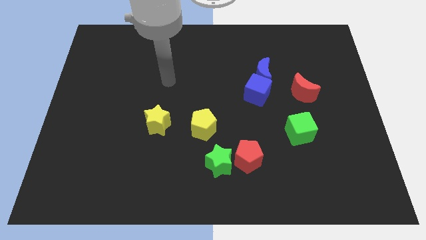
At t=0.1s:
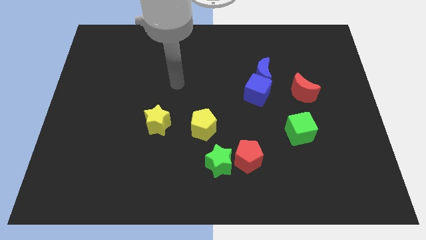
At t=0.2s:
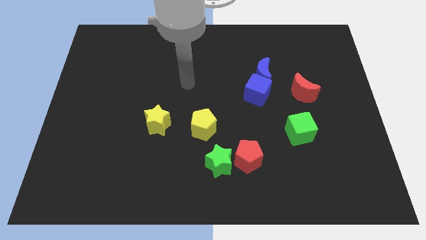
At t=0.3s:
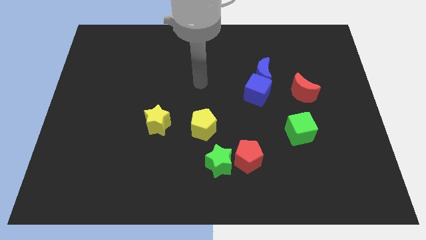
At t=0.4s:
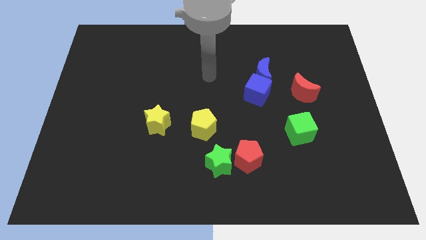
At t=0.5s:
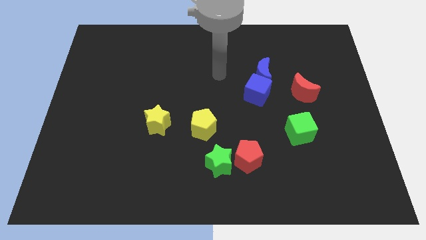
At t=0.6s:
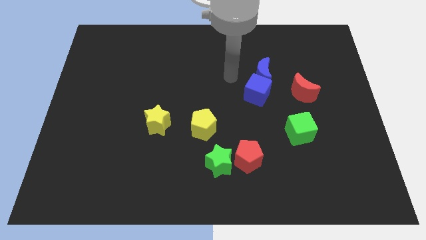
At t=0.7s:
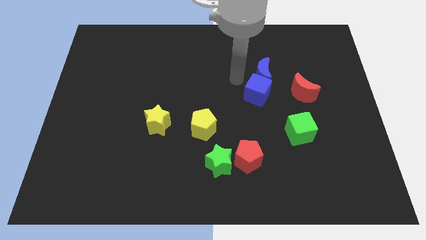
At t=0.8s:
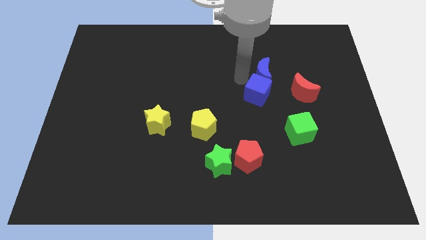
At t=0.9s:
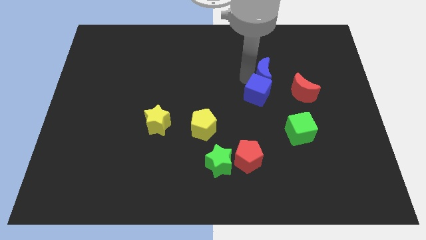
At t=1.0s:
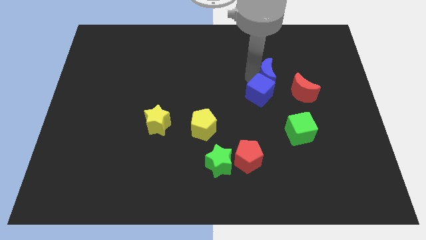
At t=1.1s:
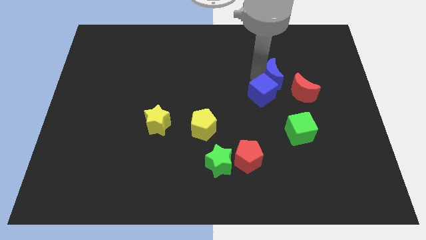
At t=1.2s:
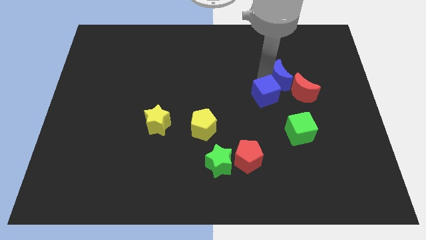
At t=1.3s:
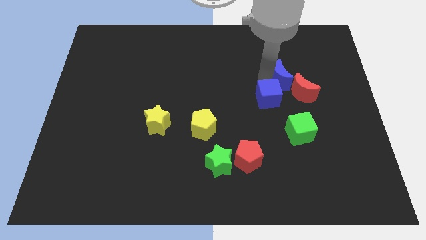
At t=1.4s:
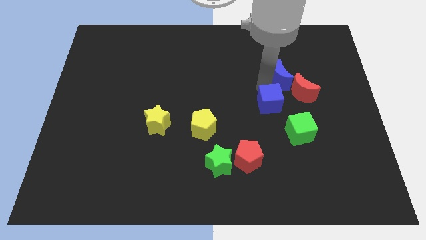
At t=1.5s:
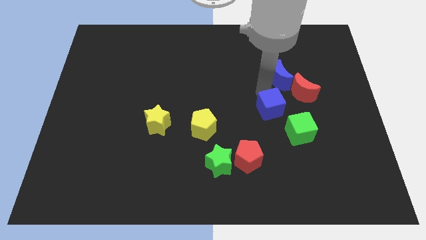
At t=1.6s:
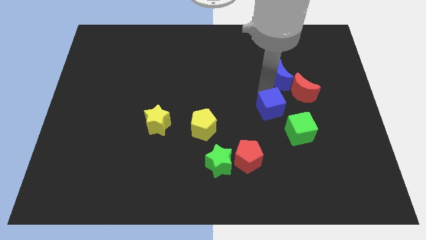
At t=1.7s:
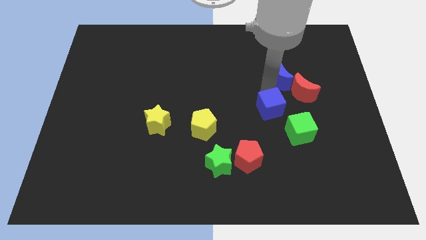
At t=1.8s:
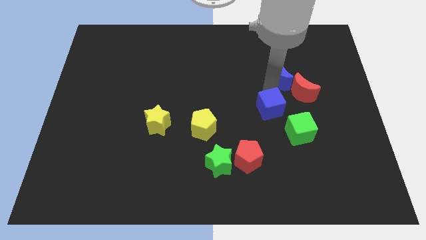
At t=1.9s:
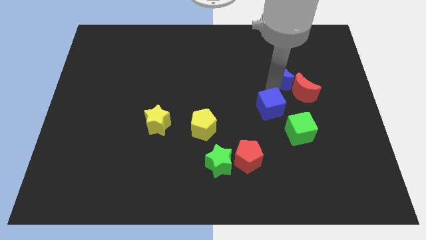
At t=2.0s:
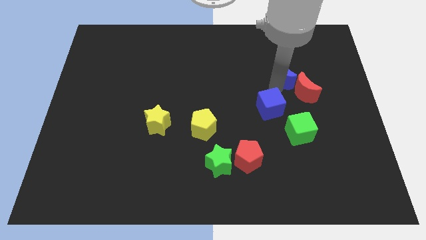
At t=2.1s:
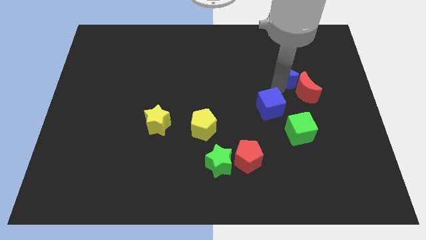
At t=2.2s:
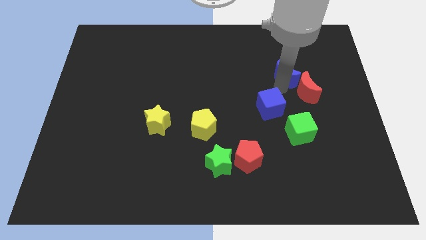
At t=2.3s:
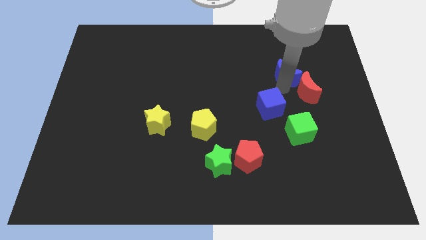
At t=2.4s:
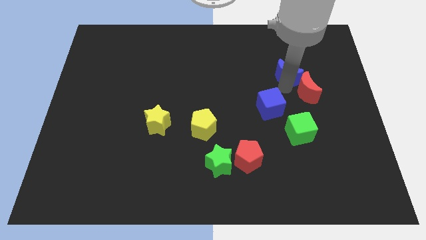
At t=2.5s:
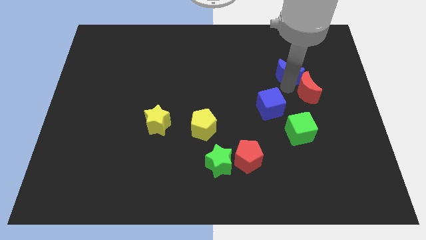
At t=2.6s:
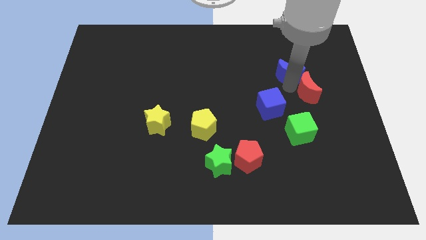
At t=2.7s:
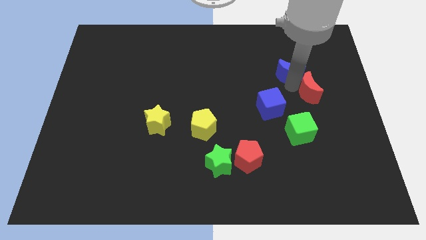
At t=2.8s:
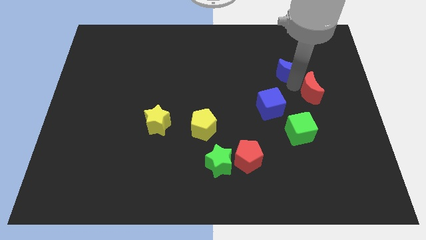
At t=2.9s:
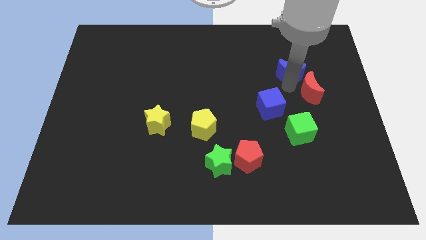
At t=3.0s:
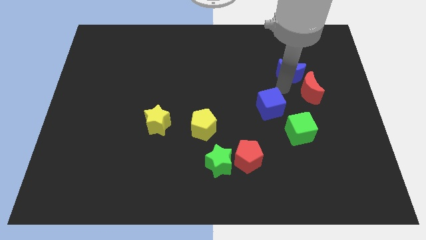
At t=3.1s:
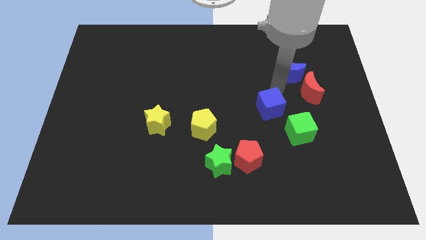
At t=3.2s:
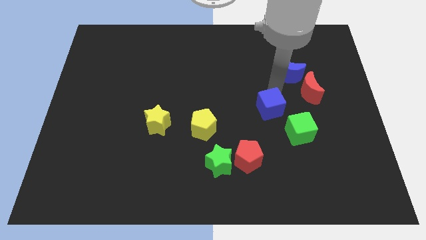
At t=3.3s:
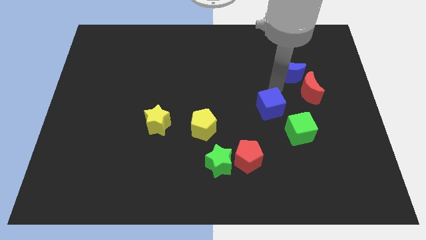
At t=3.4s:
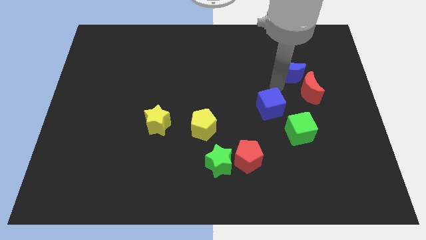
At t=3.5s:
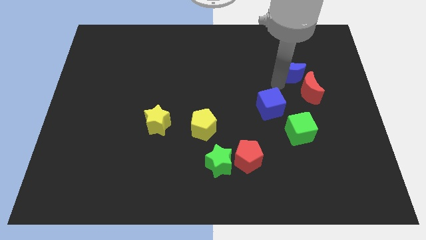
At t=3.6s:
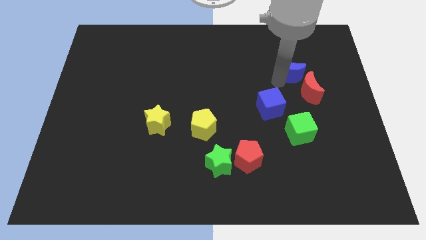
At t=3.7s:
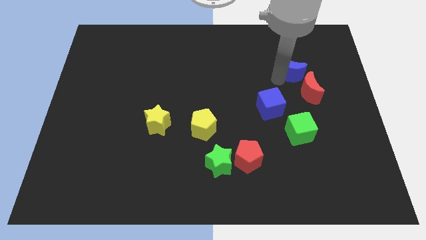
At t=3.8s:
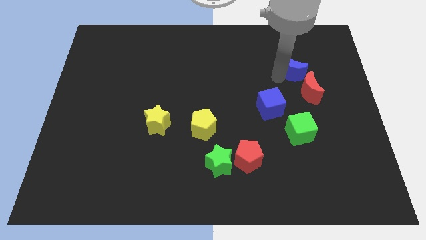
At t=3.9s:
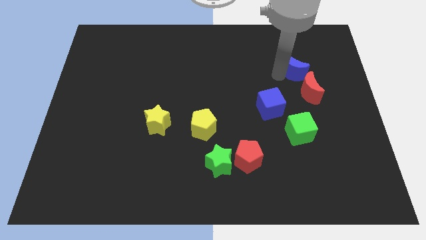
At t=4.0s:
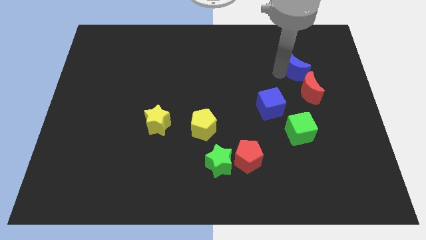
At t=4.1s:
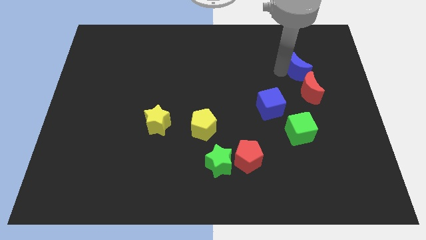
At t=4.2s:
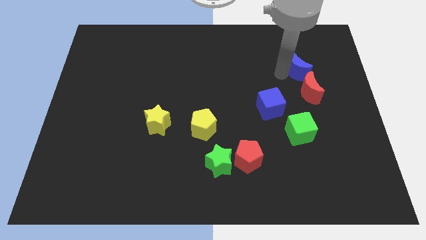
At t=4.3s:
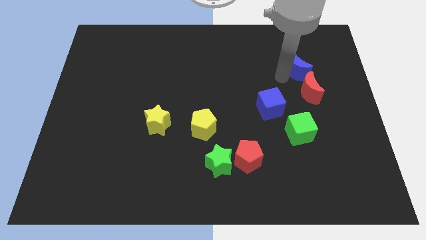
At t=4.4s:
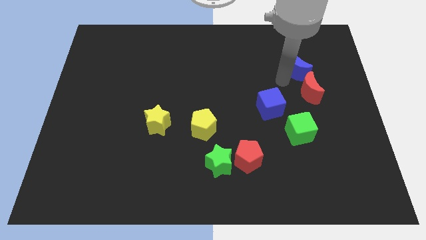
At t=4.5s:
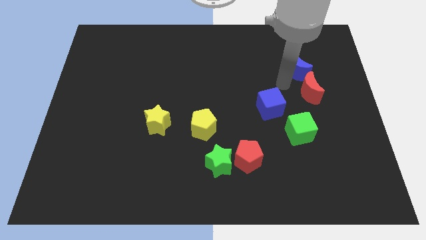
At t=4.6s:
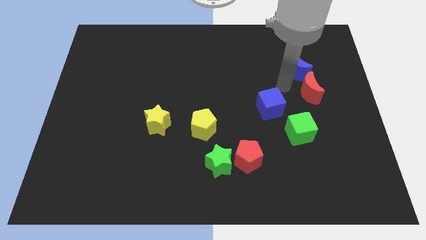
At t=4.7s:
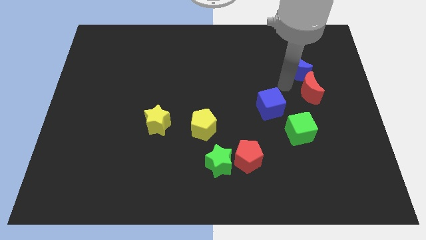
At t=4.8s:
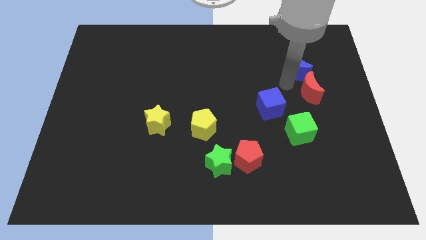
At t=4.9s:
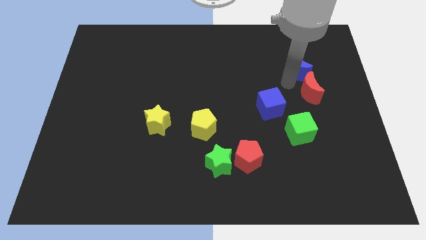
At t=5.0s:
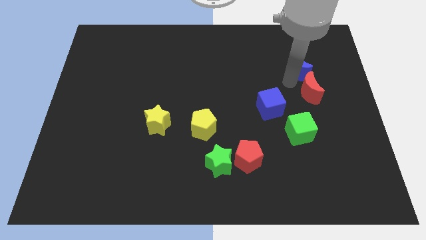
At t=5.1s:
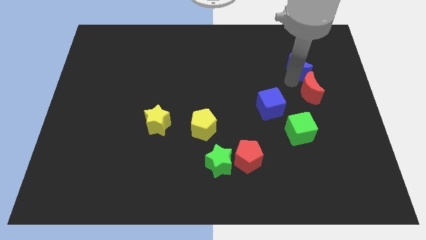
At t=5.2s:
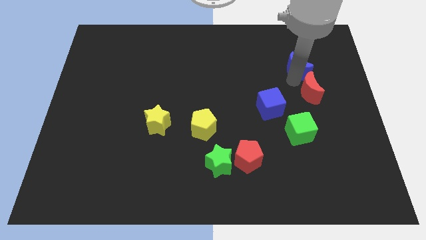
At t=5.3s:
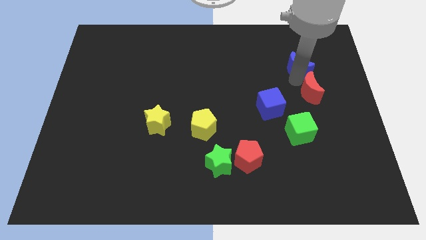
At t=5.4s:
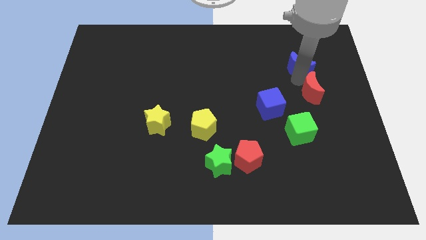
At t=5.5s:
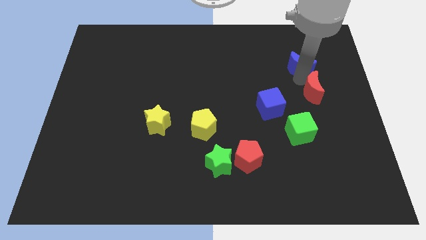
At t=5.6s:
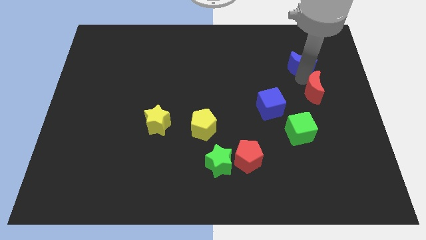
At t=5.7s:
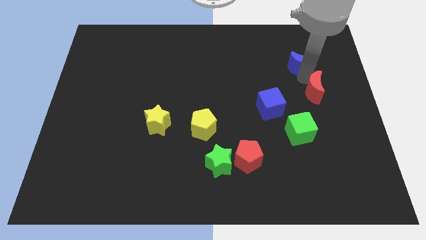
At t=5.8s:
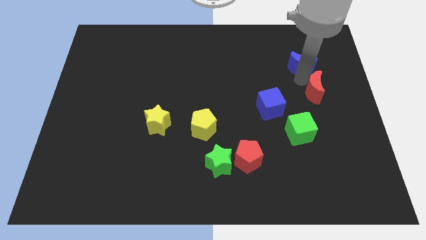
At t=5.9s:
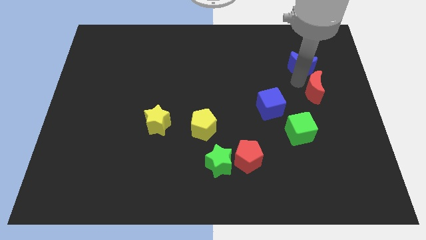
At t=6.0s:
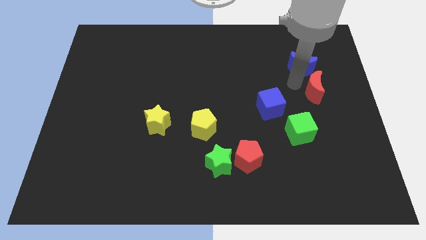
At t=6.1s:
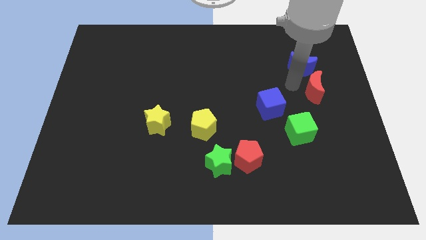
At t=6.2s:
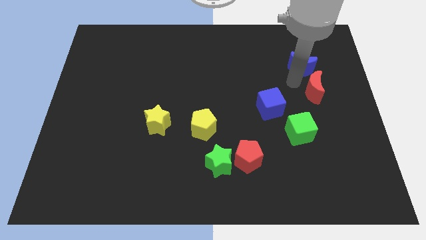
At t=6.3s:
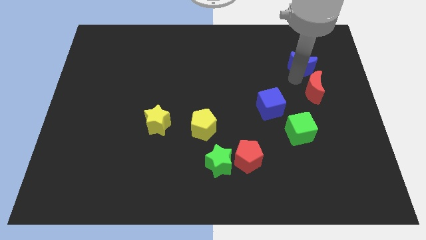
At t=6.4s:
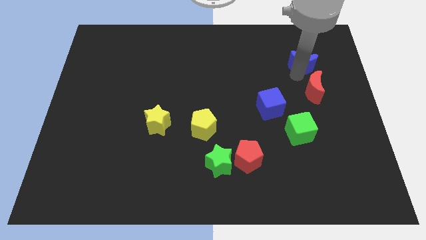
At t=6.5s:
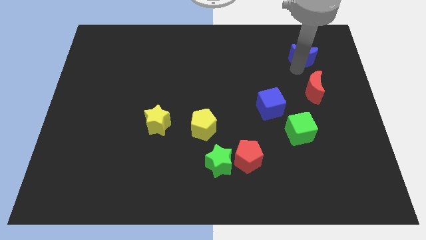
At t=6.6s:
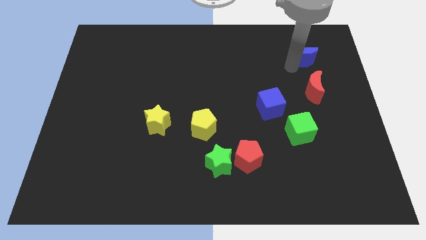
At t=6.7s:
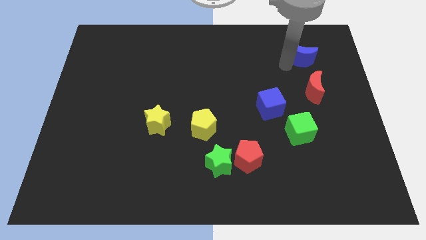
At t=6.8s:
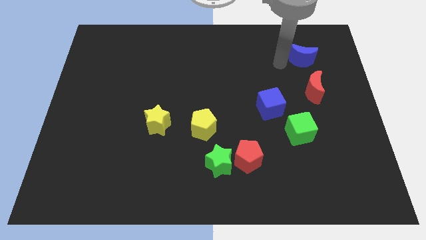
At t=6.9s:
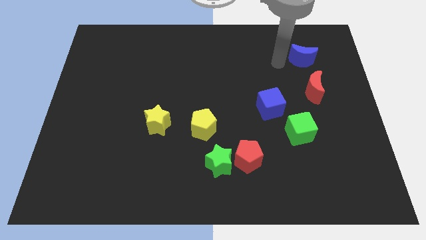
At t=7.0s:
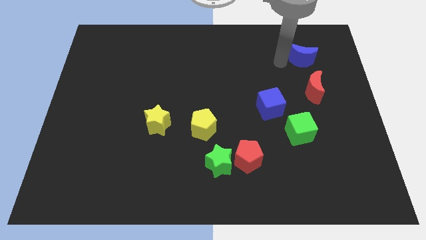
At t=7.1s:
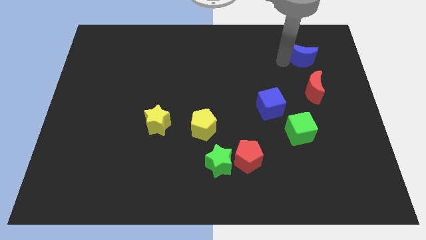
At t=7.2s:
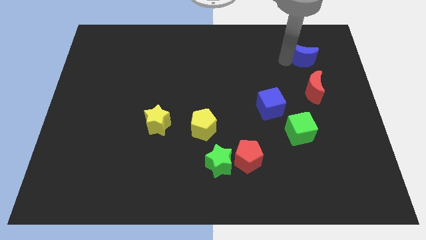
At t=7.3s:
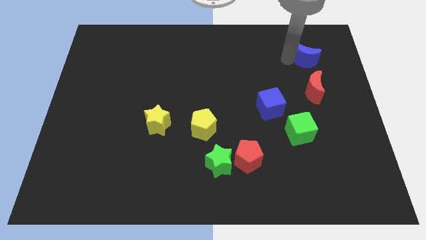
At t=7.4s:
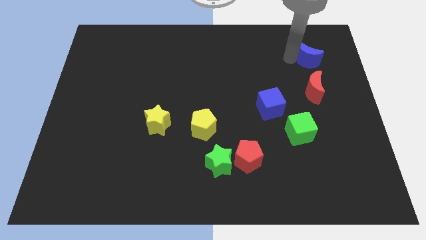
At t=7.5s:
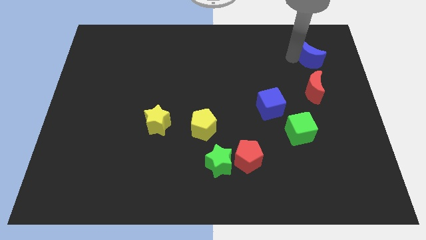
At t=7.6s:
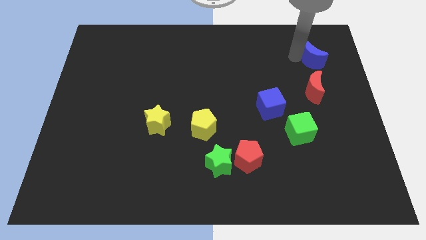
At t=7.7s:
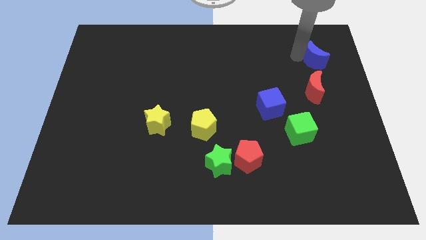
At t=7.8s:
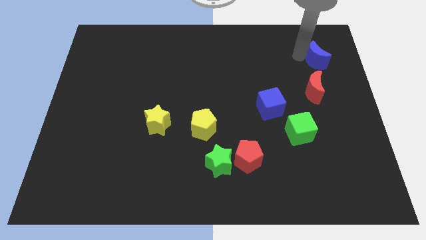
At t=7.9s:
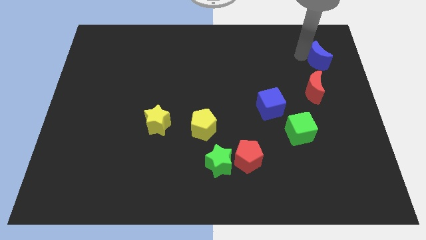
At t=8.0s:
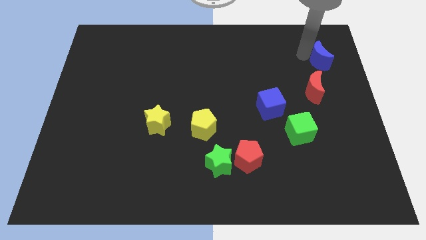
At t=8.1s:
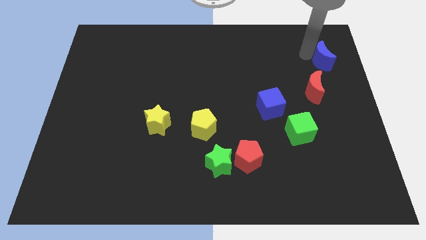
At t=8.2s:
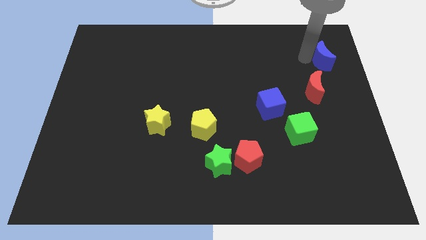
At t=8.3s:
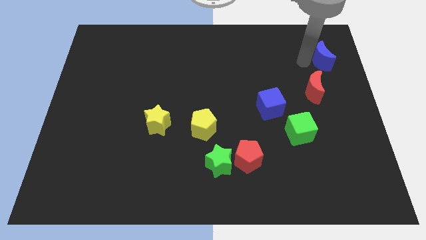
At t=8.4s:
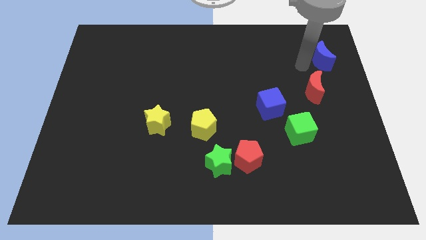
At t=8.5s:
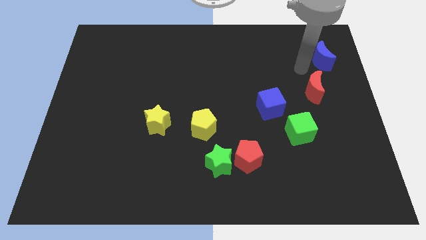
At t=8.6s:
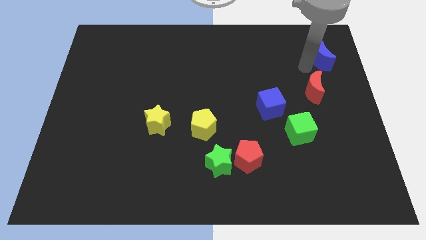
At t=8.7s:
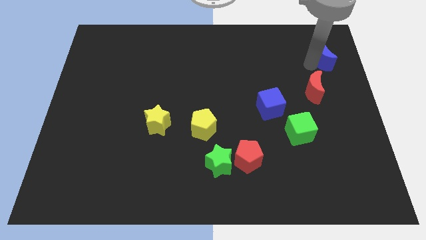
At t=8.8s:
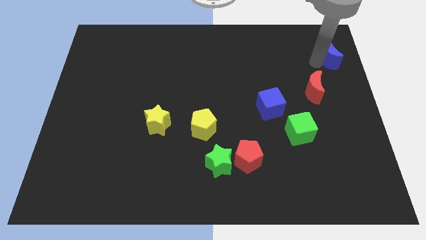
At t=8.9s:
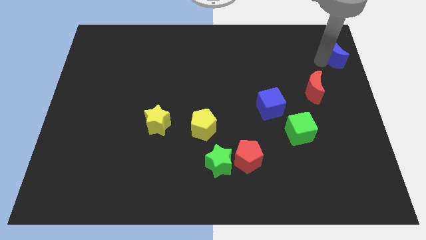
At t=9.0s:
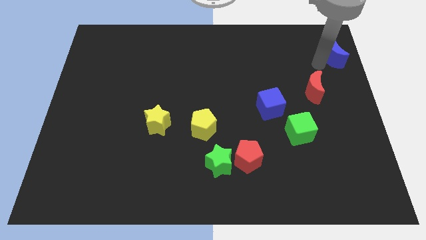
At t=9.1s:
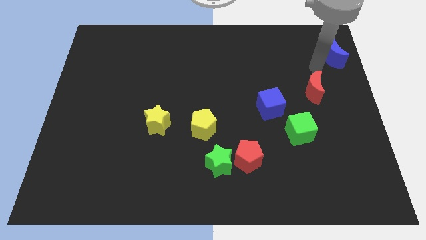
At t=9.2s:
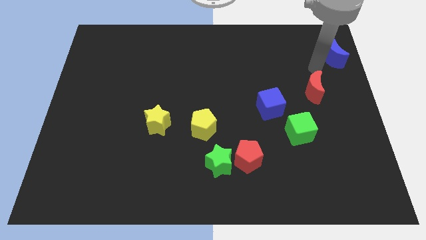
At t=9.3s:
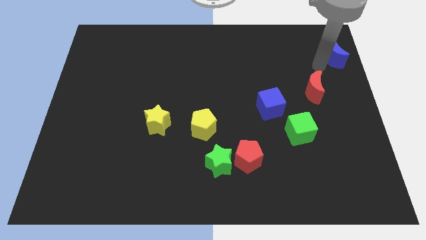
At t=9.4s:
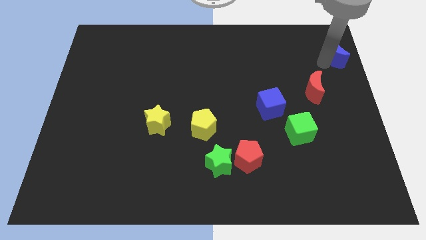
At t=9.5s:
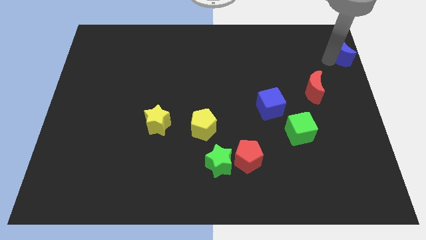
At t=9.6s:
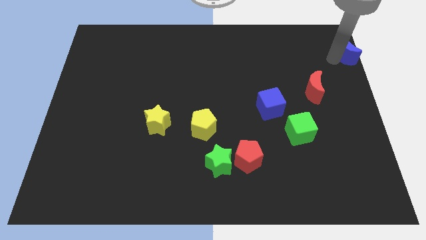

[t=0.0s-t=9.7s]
put the blue moon to the top right
